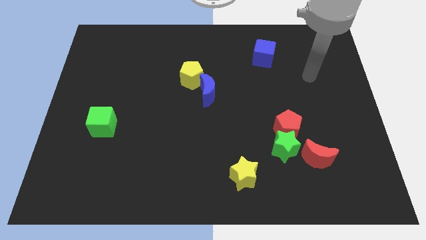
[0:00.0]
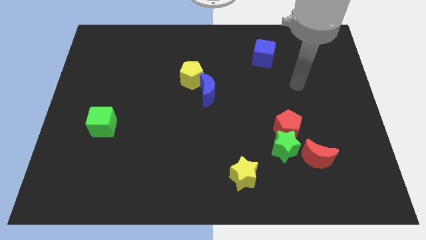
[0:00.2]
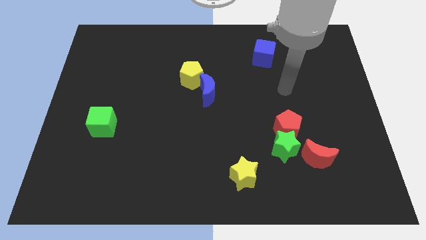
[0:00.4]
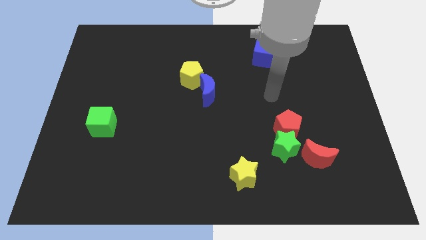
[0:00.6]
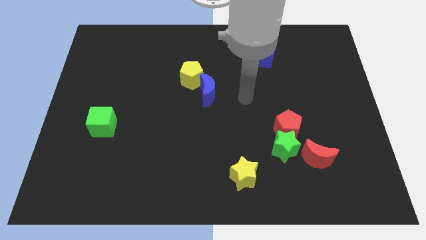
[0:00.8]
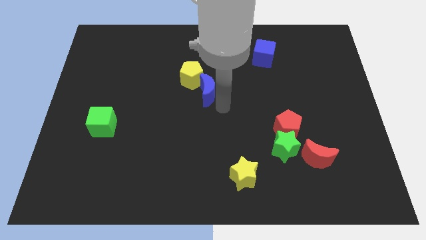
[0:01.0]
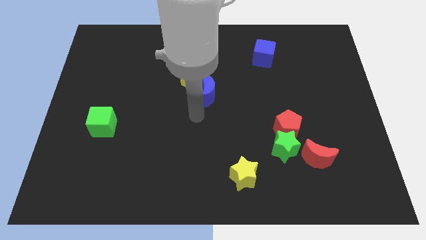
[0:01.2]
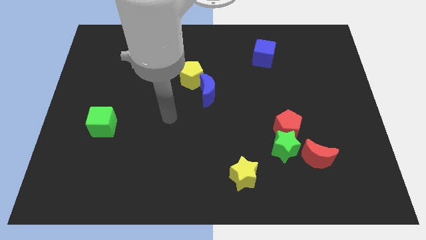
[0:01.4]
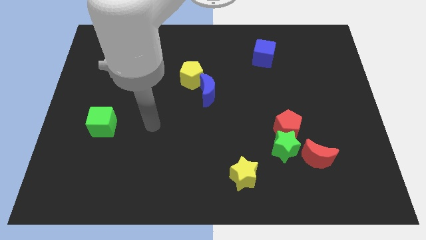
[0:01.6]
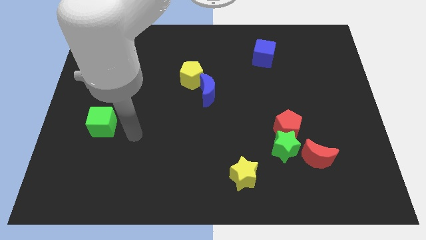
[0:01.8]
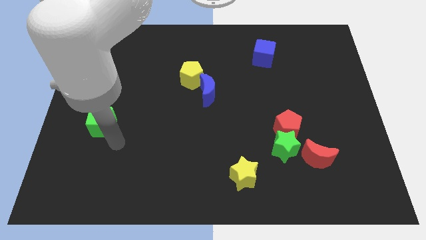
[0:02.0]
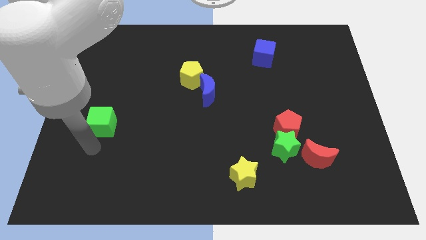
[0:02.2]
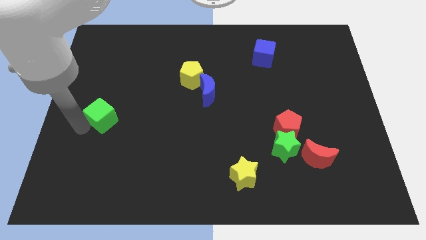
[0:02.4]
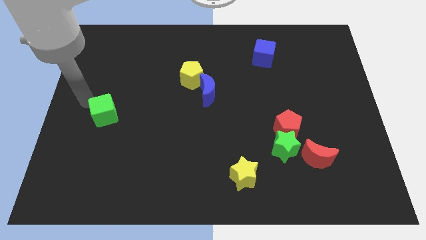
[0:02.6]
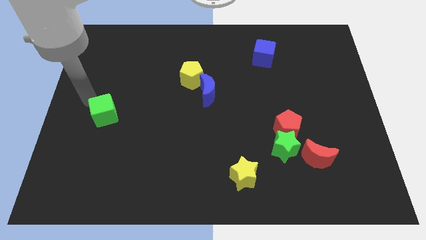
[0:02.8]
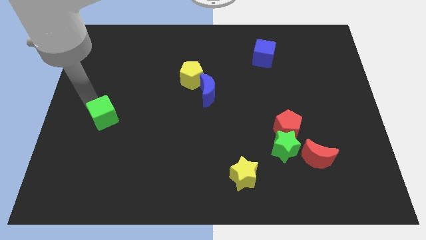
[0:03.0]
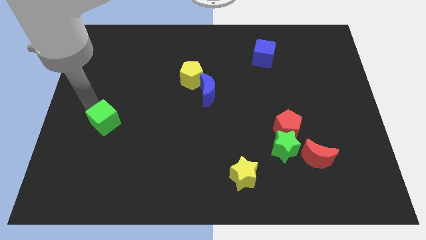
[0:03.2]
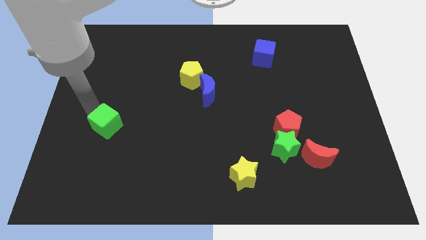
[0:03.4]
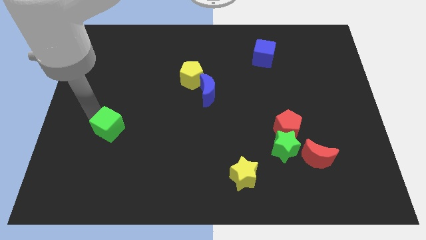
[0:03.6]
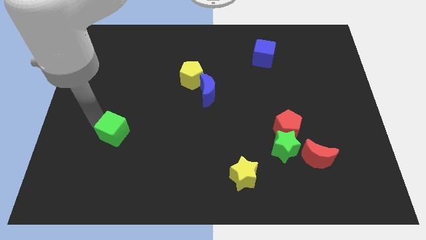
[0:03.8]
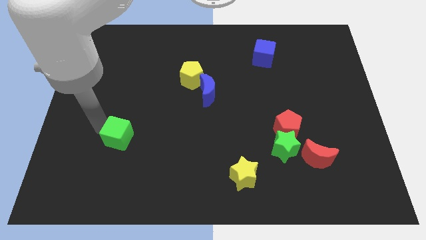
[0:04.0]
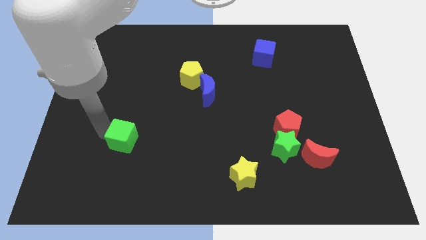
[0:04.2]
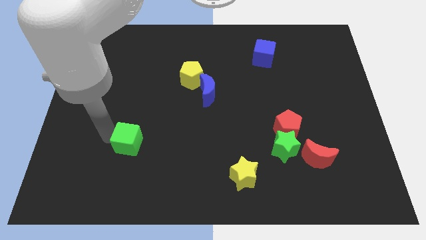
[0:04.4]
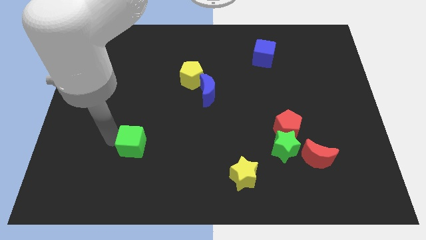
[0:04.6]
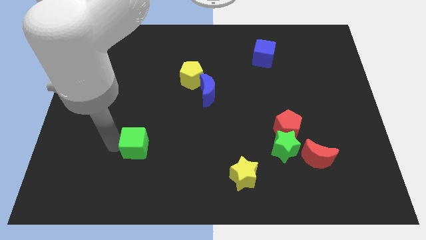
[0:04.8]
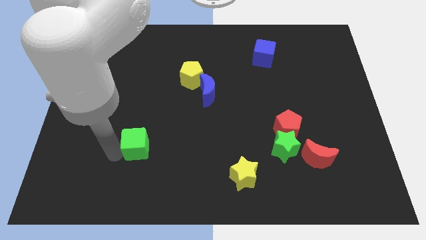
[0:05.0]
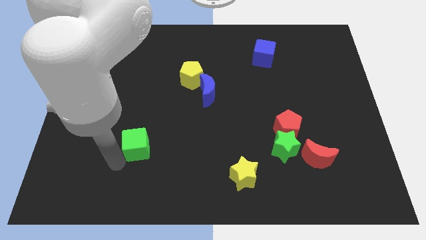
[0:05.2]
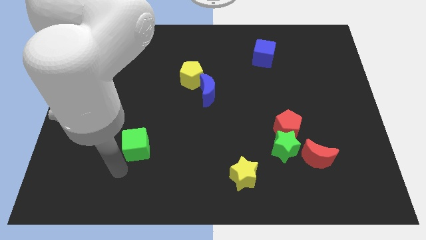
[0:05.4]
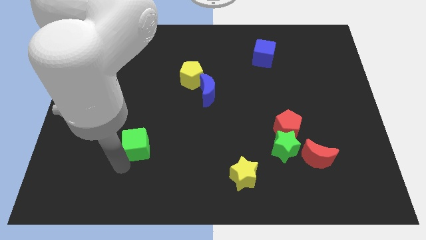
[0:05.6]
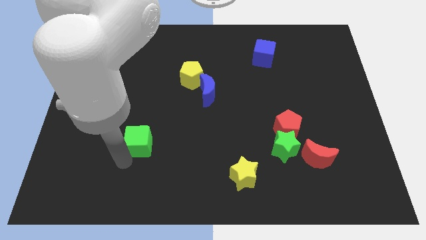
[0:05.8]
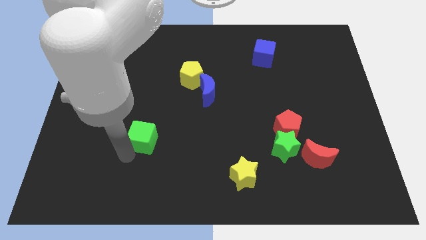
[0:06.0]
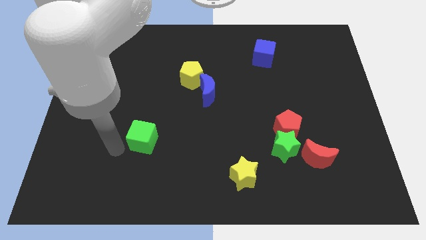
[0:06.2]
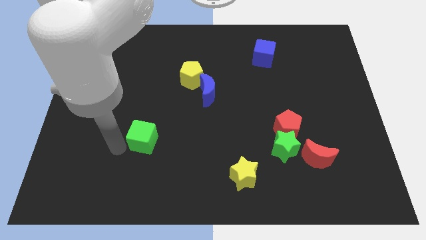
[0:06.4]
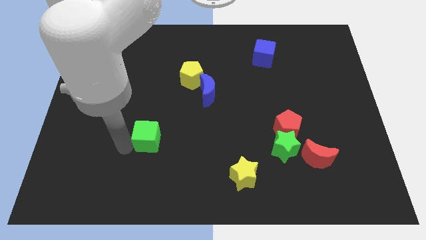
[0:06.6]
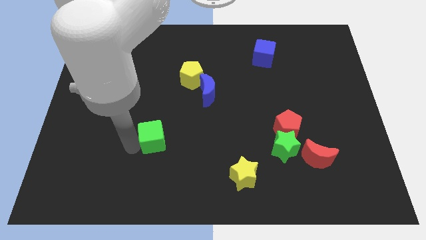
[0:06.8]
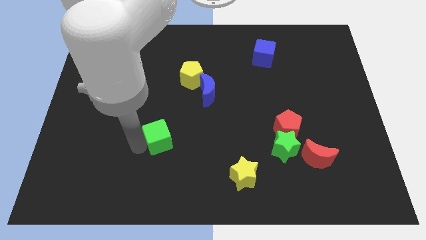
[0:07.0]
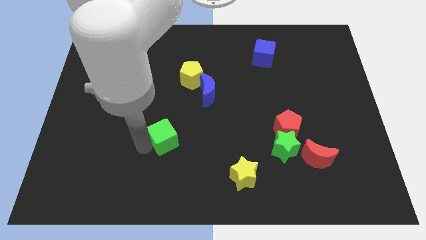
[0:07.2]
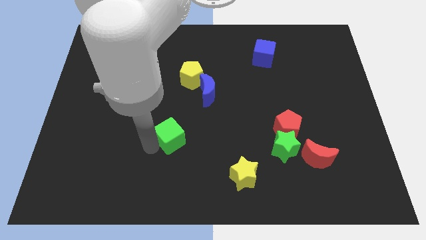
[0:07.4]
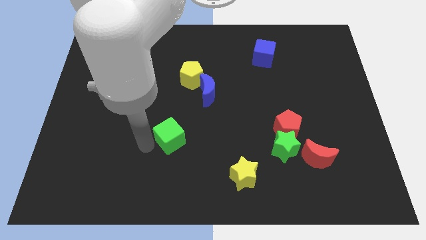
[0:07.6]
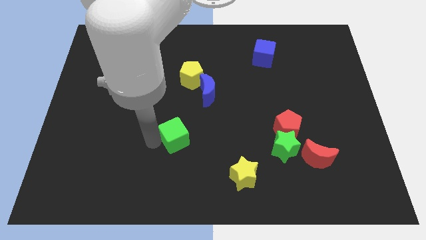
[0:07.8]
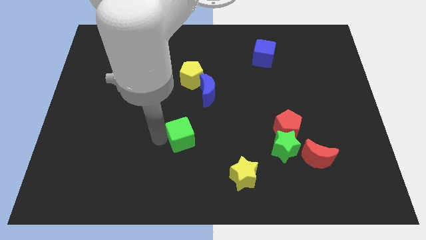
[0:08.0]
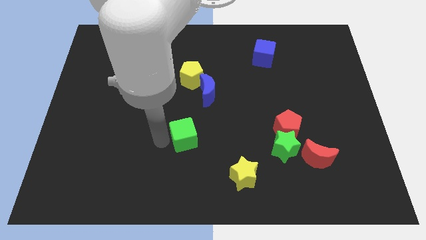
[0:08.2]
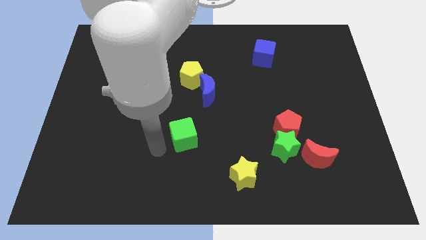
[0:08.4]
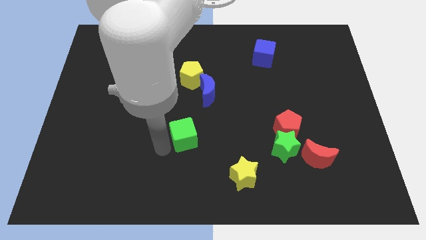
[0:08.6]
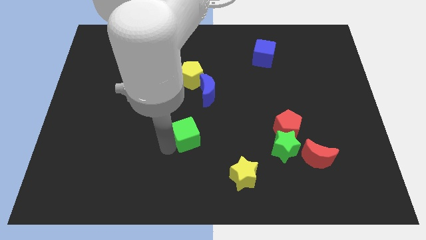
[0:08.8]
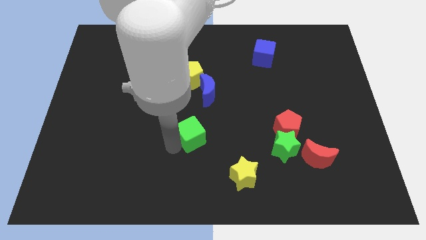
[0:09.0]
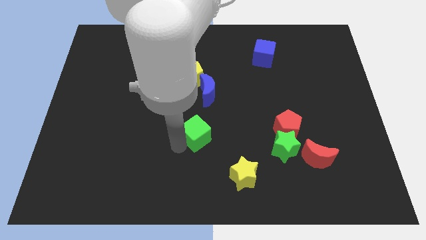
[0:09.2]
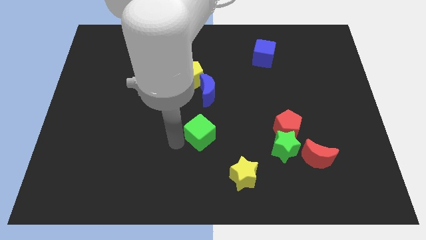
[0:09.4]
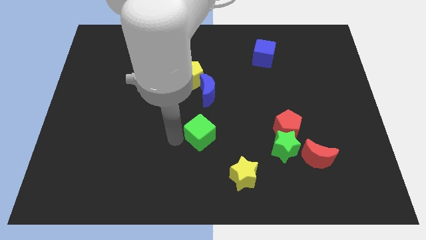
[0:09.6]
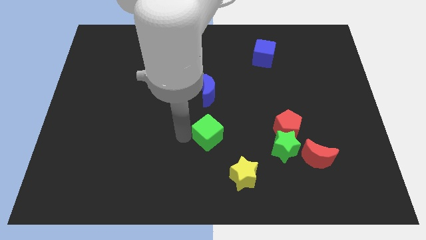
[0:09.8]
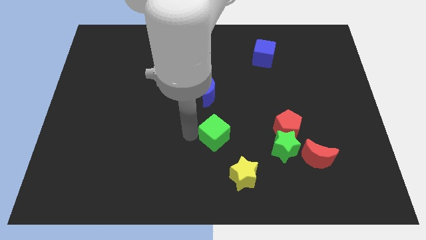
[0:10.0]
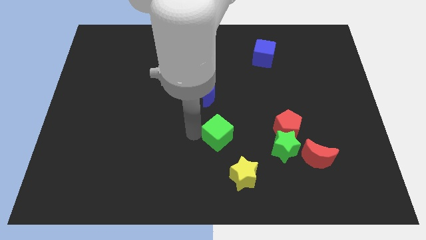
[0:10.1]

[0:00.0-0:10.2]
put the green cube left of the red pentagon

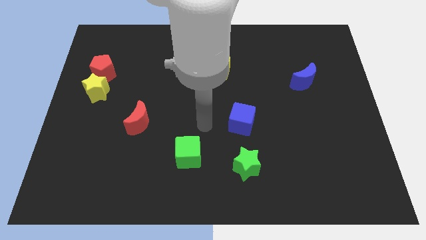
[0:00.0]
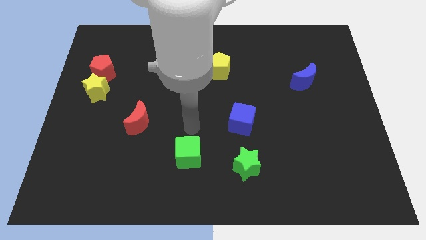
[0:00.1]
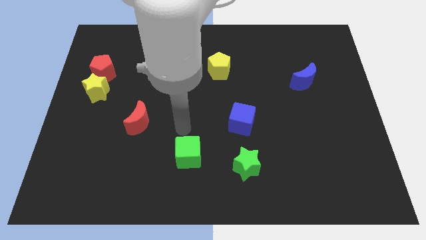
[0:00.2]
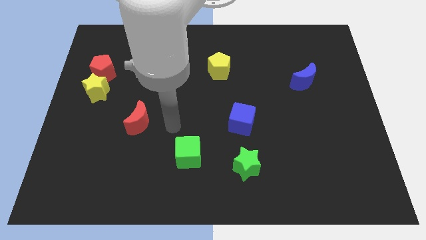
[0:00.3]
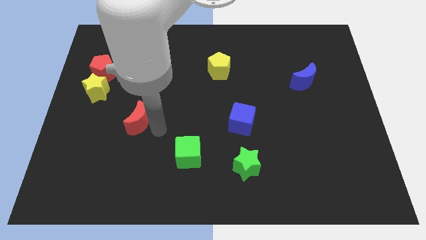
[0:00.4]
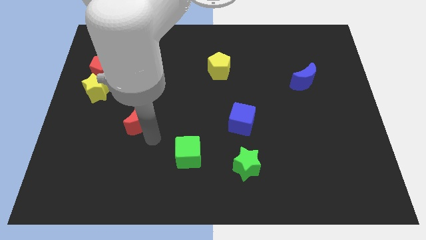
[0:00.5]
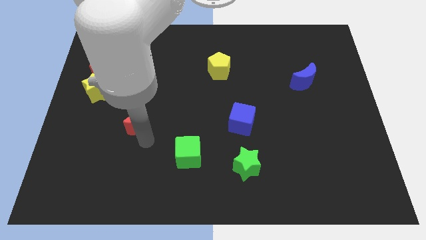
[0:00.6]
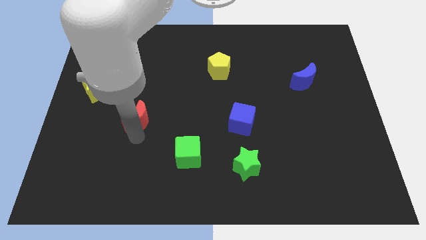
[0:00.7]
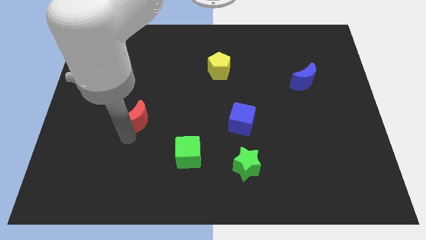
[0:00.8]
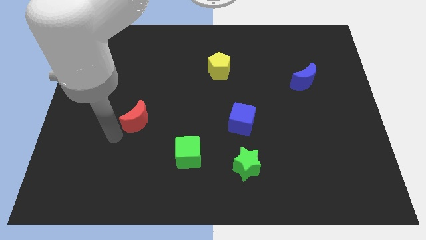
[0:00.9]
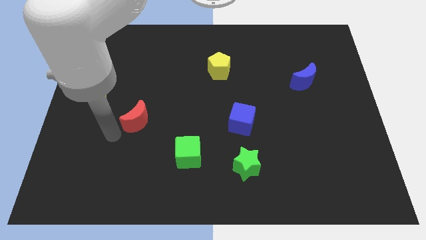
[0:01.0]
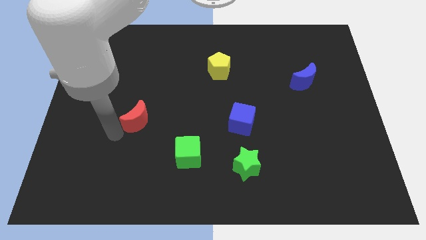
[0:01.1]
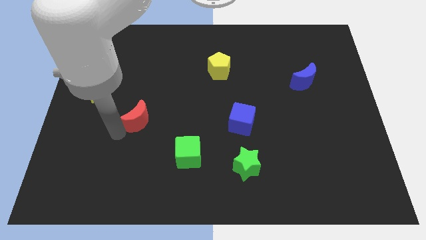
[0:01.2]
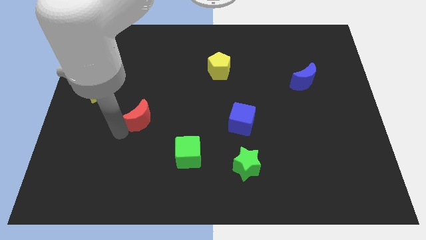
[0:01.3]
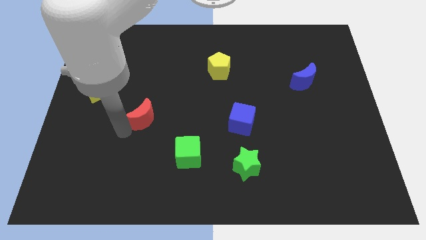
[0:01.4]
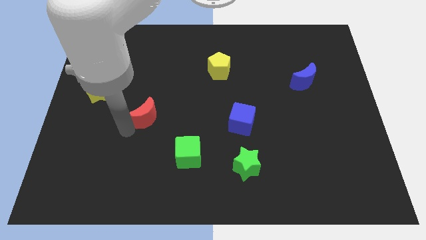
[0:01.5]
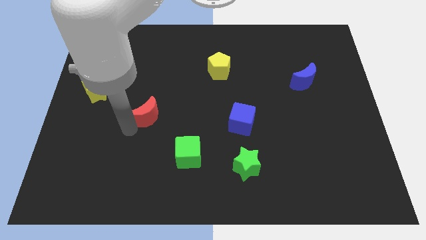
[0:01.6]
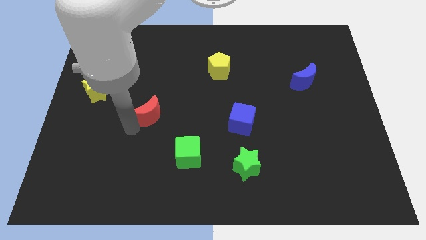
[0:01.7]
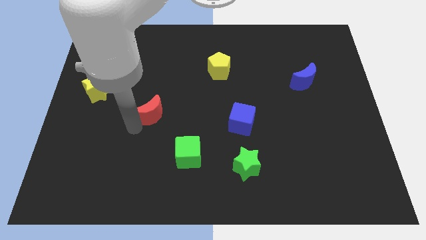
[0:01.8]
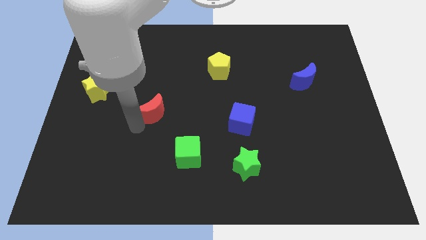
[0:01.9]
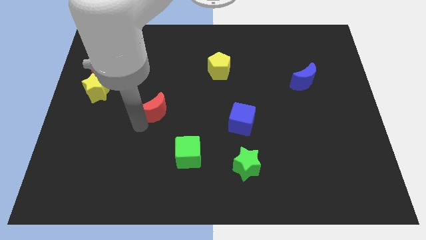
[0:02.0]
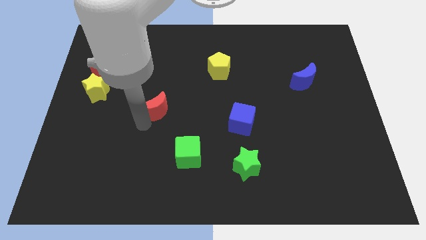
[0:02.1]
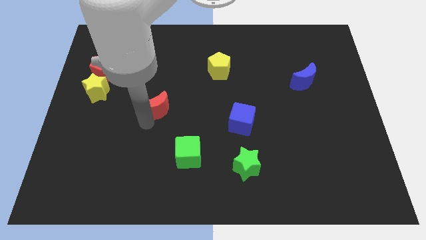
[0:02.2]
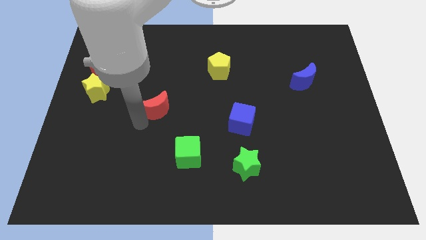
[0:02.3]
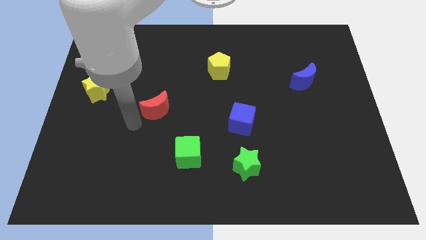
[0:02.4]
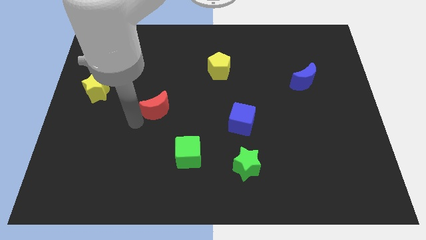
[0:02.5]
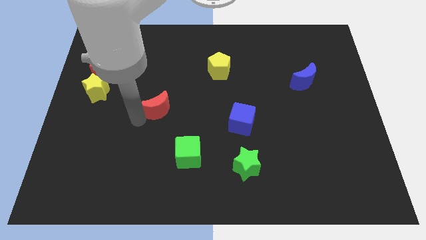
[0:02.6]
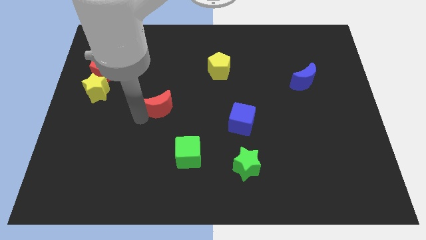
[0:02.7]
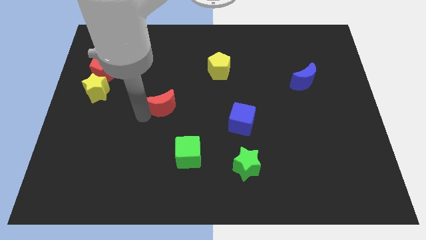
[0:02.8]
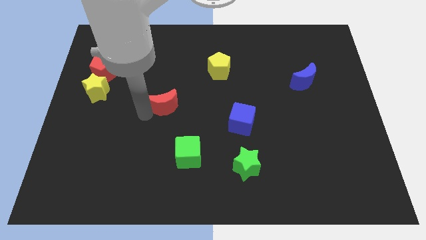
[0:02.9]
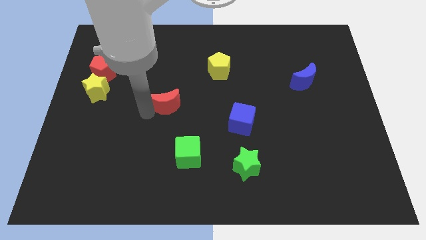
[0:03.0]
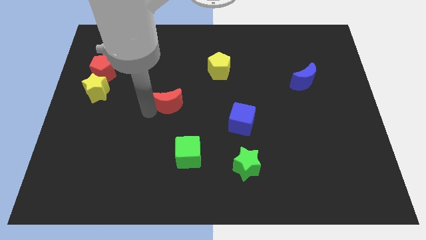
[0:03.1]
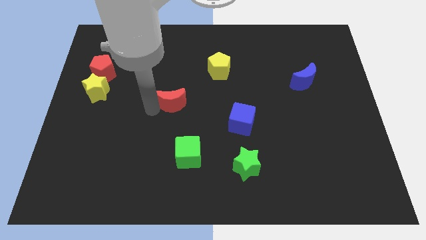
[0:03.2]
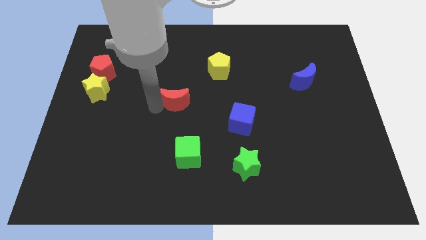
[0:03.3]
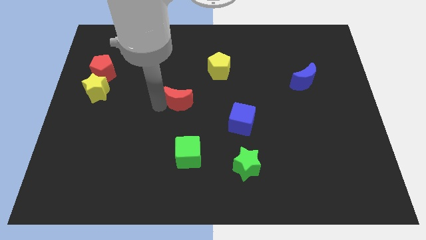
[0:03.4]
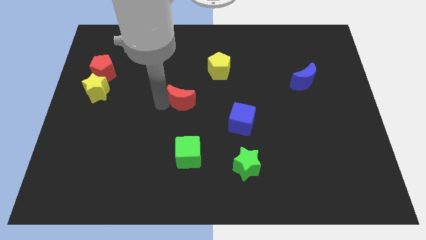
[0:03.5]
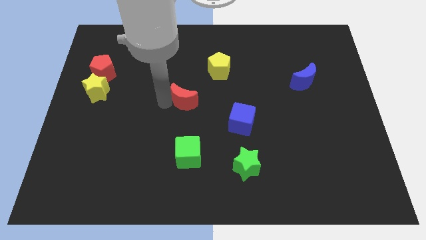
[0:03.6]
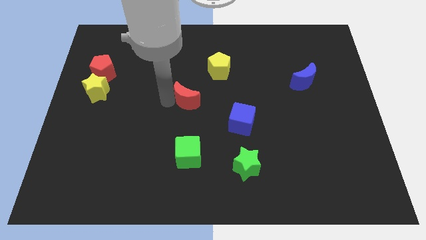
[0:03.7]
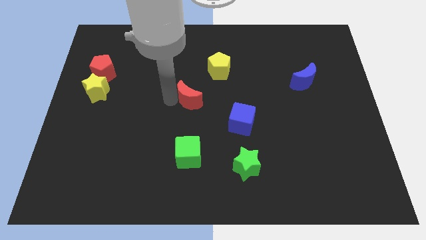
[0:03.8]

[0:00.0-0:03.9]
push the red moon diagonally down and to the left of the yellow pentagon
